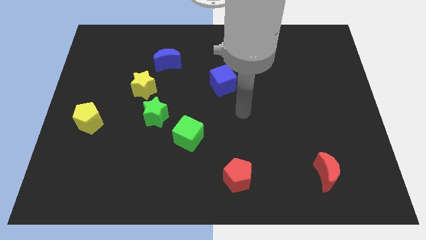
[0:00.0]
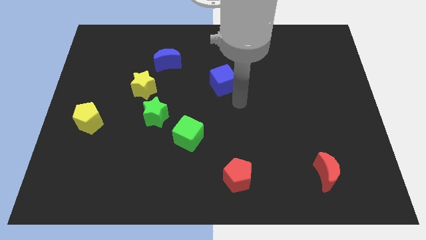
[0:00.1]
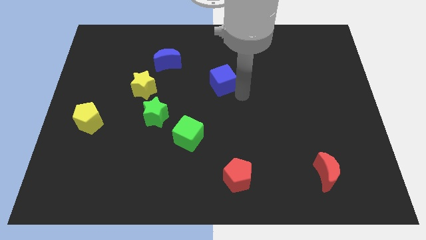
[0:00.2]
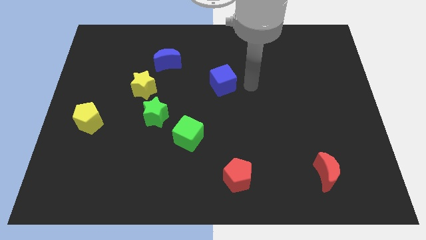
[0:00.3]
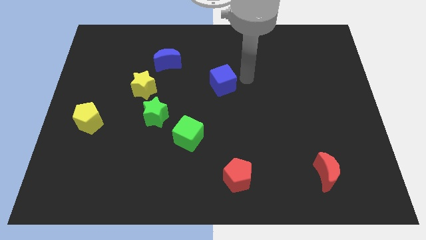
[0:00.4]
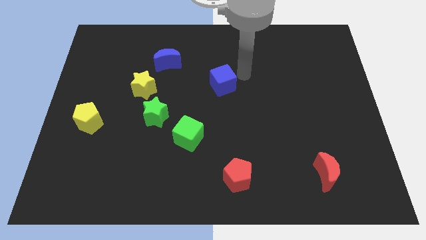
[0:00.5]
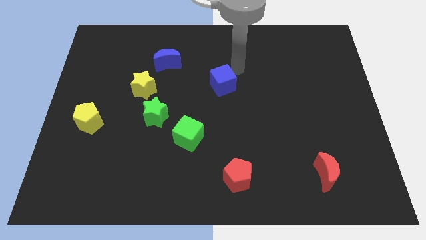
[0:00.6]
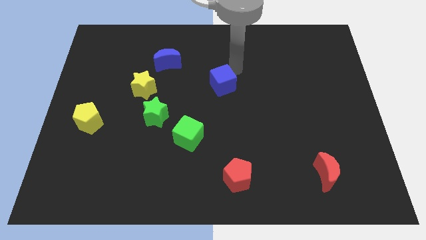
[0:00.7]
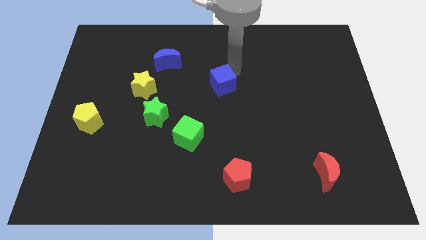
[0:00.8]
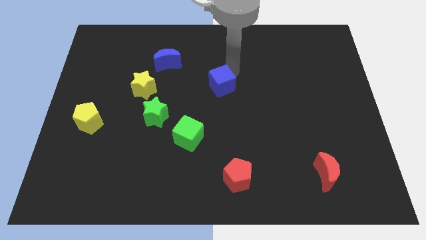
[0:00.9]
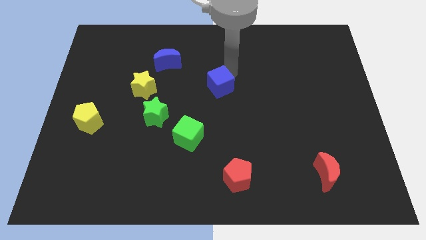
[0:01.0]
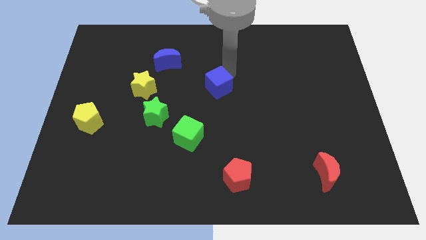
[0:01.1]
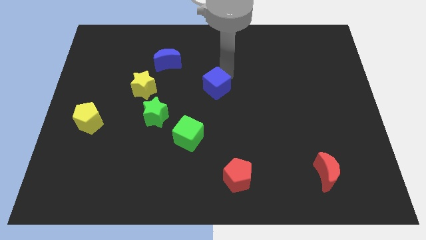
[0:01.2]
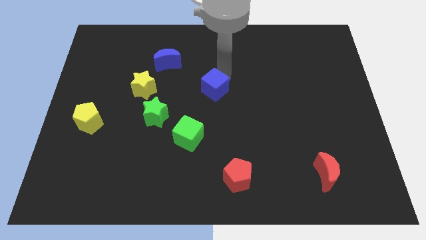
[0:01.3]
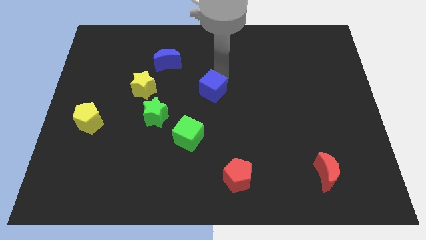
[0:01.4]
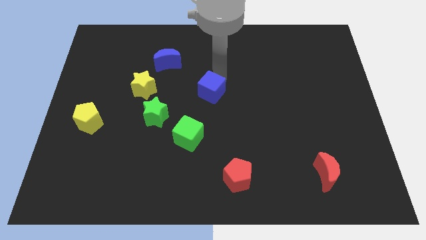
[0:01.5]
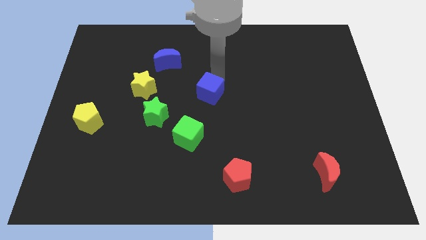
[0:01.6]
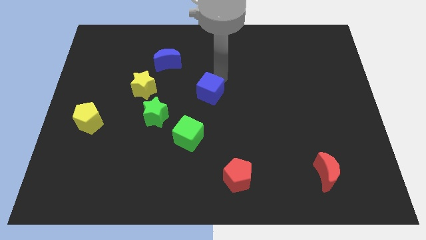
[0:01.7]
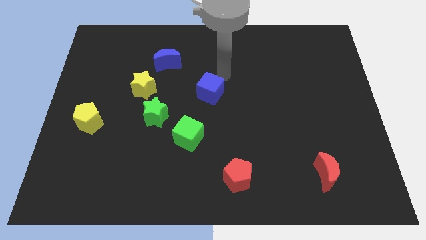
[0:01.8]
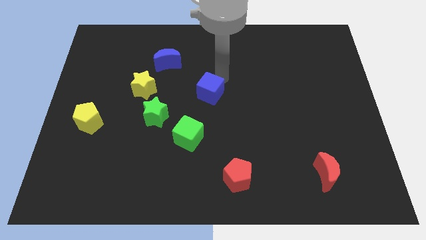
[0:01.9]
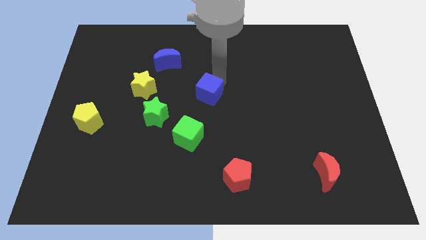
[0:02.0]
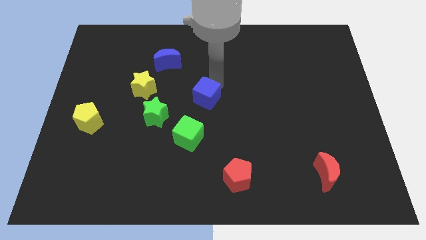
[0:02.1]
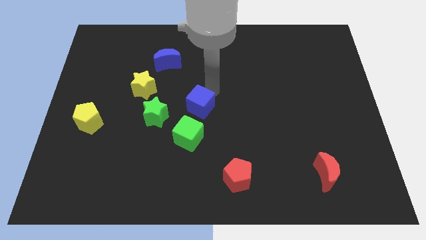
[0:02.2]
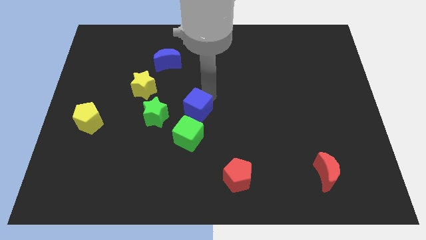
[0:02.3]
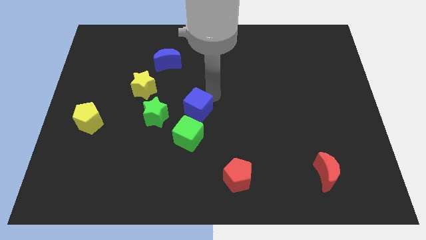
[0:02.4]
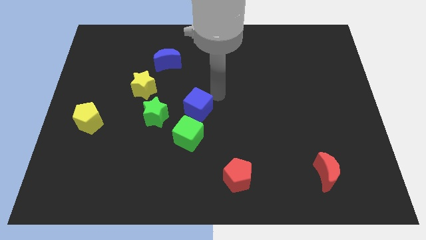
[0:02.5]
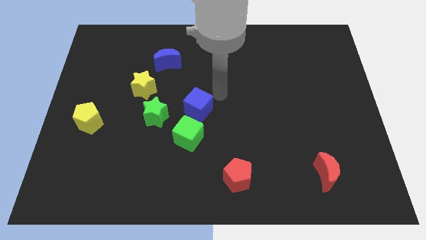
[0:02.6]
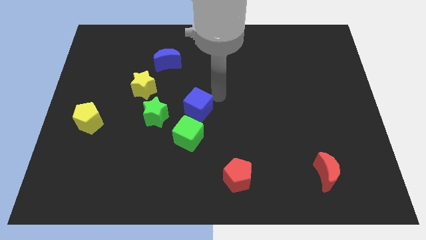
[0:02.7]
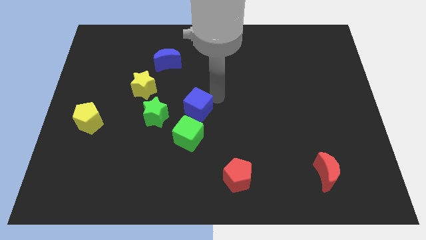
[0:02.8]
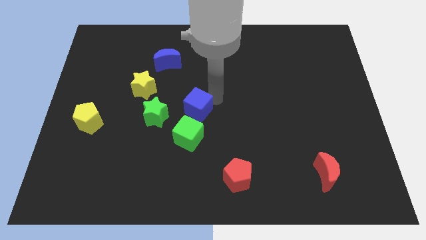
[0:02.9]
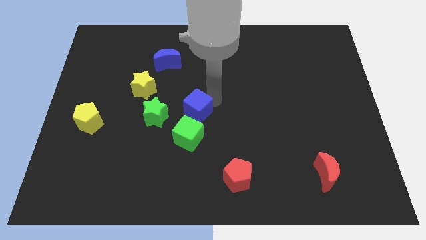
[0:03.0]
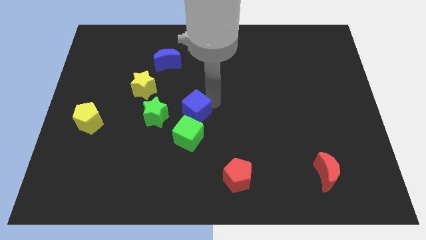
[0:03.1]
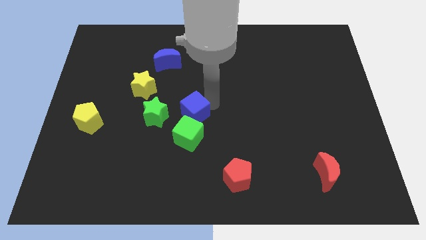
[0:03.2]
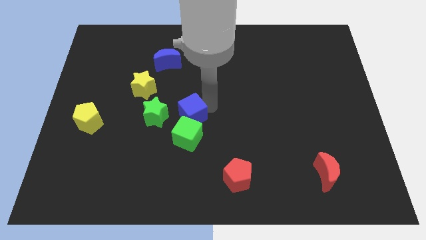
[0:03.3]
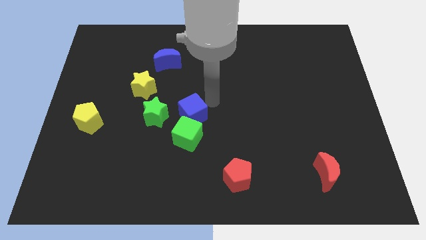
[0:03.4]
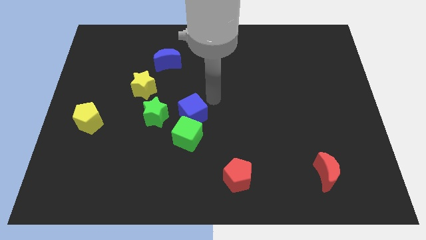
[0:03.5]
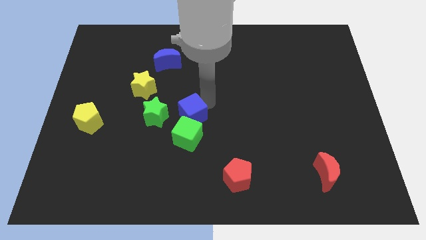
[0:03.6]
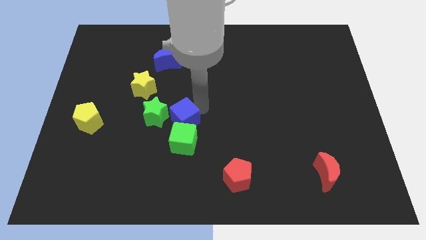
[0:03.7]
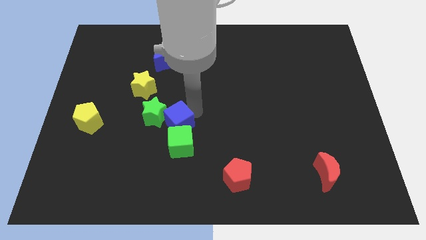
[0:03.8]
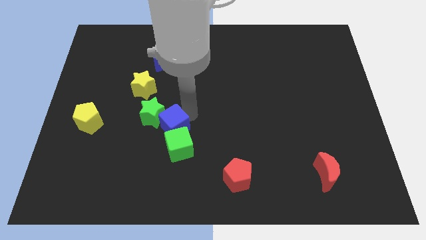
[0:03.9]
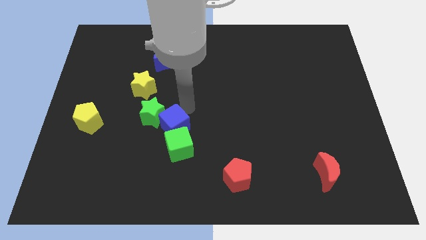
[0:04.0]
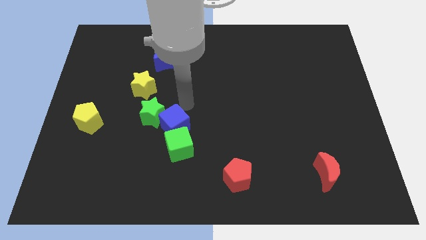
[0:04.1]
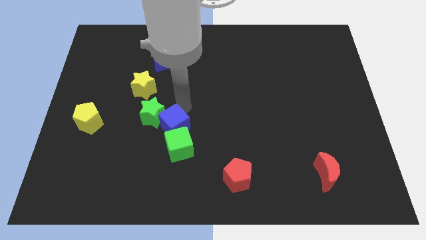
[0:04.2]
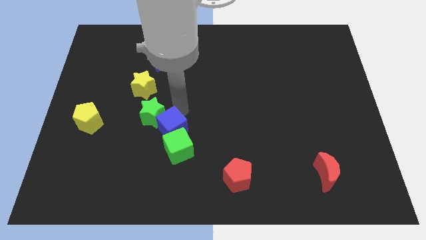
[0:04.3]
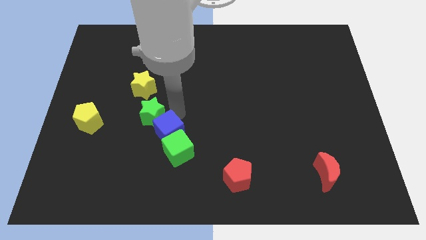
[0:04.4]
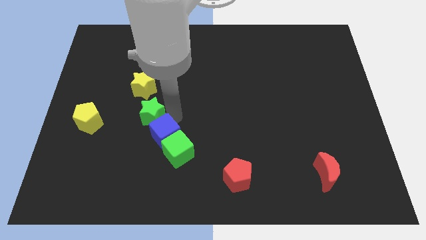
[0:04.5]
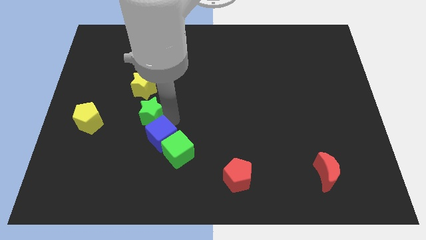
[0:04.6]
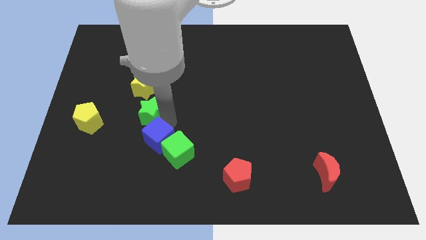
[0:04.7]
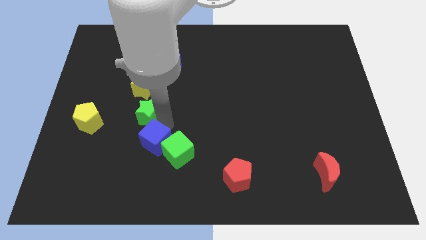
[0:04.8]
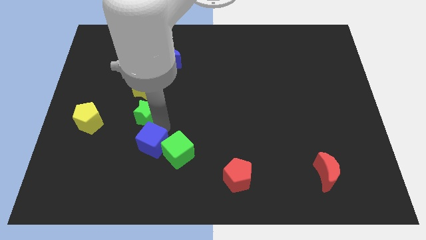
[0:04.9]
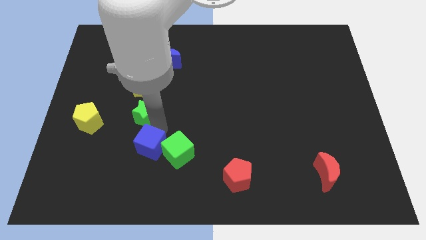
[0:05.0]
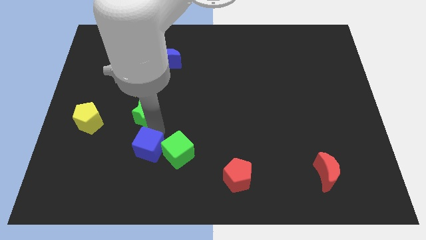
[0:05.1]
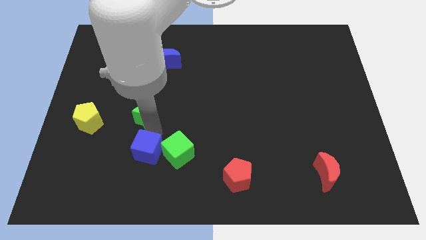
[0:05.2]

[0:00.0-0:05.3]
push the blue cube diagonally down and to the left of the green cube

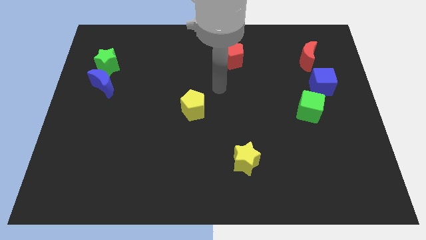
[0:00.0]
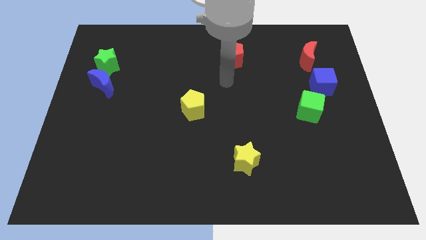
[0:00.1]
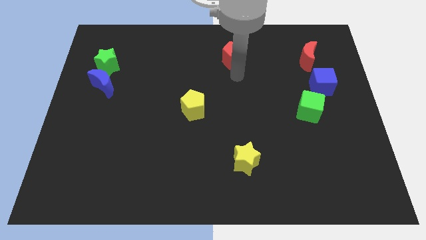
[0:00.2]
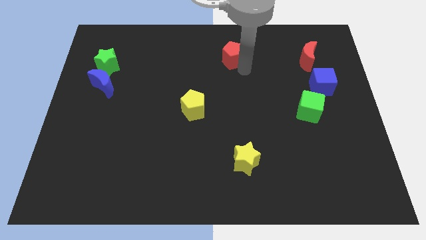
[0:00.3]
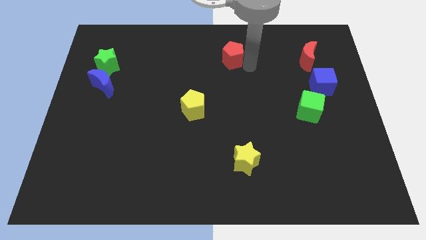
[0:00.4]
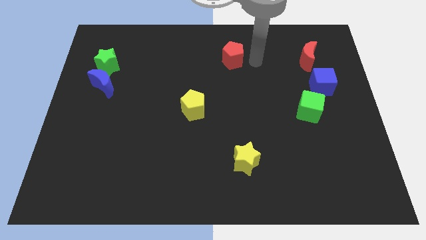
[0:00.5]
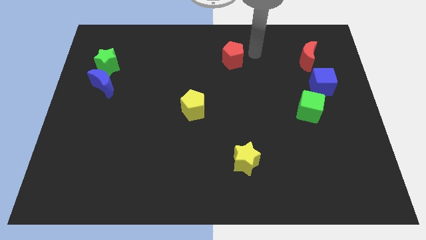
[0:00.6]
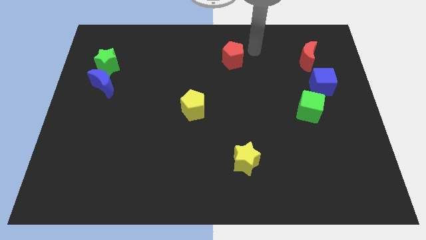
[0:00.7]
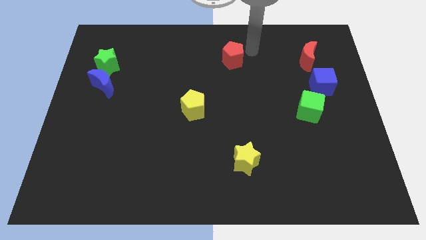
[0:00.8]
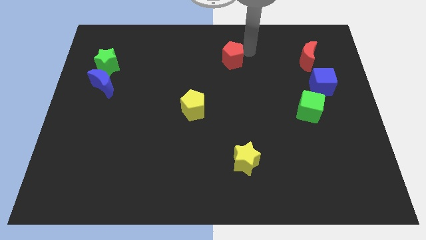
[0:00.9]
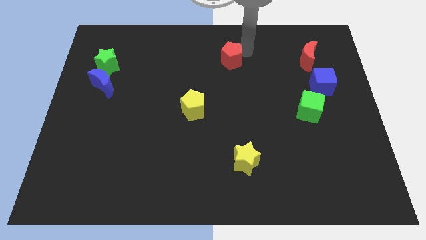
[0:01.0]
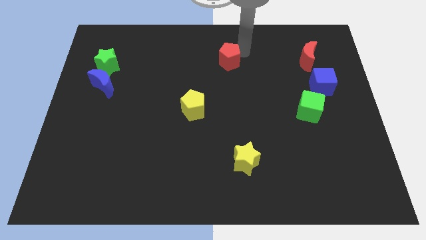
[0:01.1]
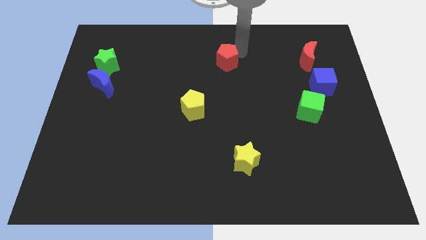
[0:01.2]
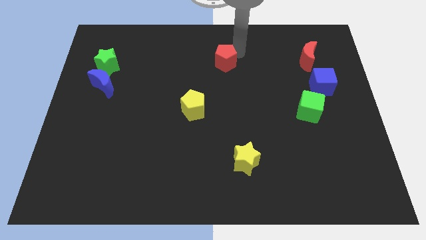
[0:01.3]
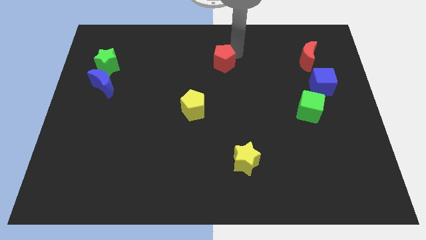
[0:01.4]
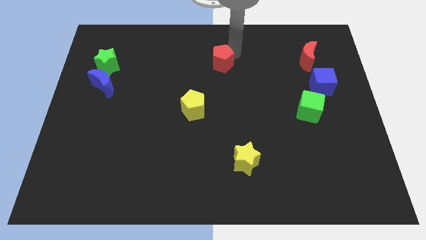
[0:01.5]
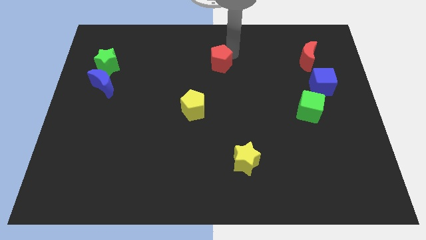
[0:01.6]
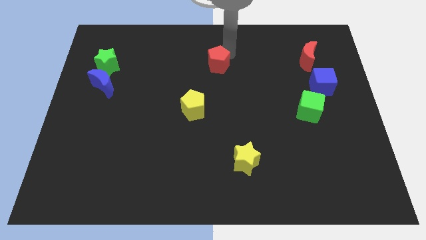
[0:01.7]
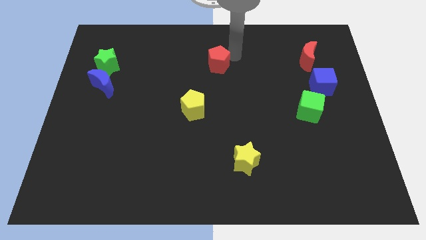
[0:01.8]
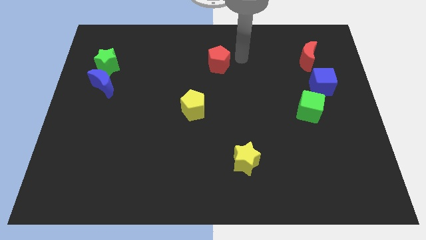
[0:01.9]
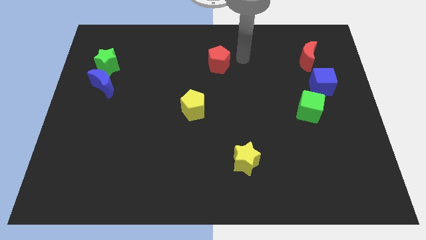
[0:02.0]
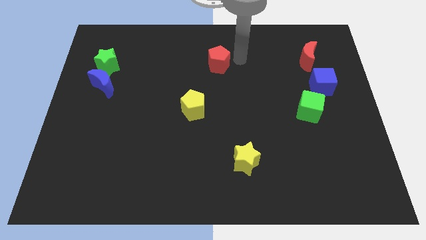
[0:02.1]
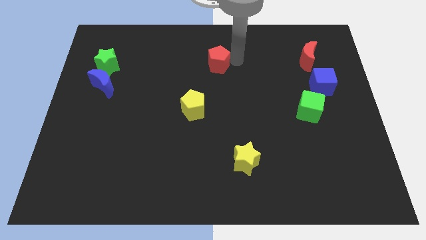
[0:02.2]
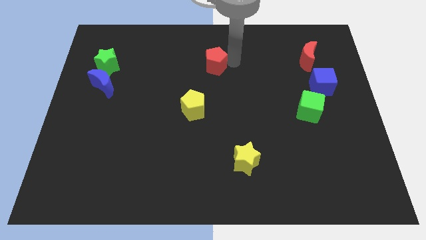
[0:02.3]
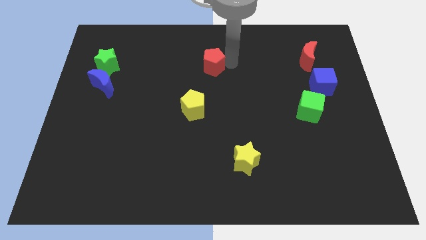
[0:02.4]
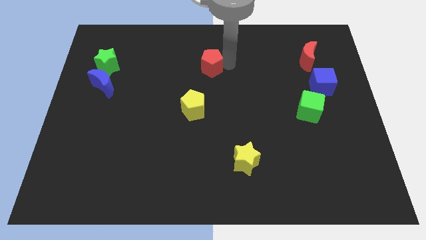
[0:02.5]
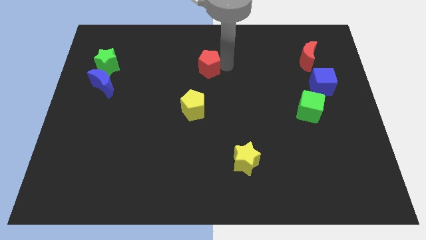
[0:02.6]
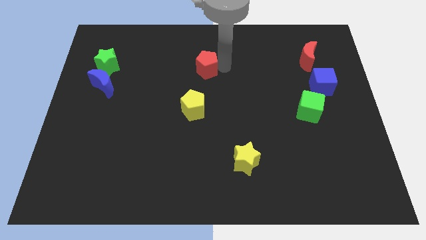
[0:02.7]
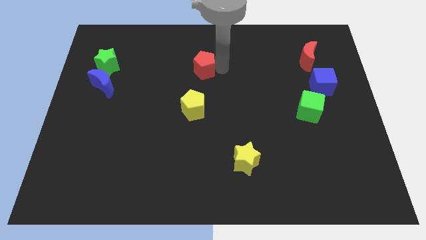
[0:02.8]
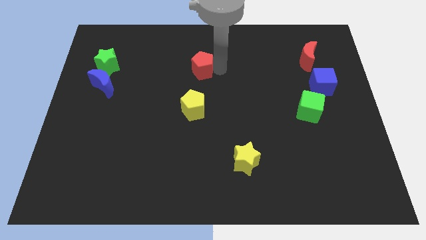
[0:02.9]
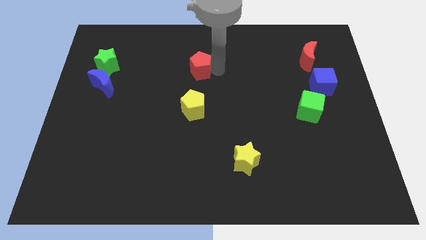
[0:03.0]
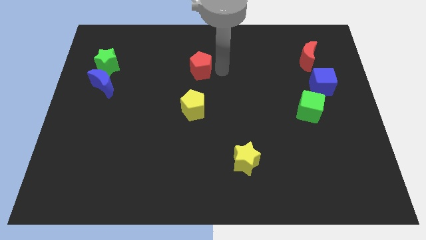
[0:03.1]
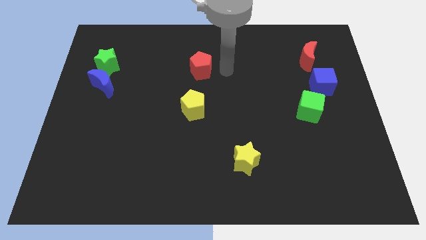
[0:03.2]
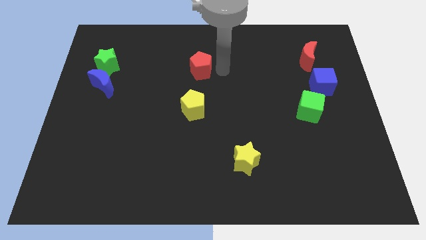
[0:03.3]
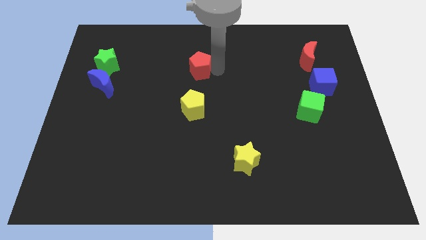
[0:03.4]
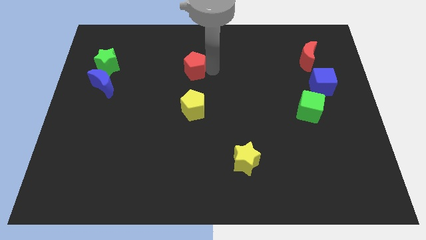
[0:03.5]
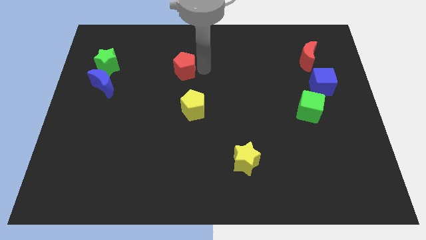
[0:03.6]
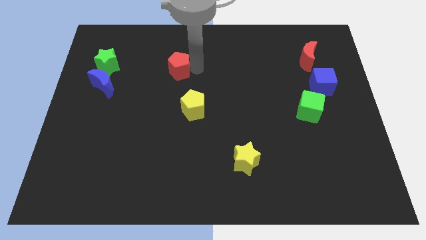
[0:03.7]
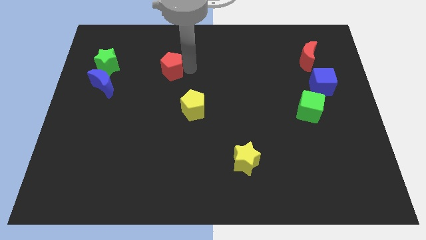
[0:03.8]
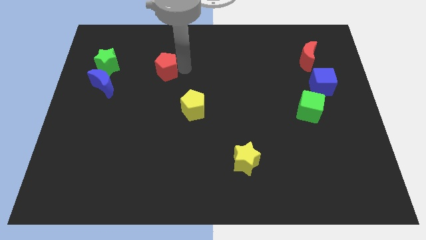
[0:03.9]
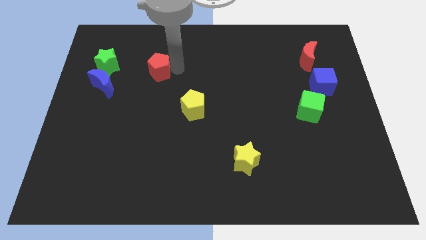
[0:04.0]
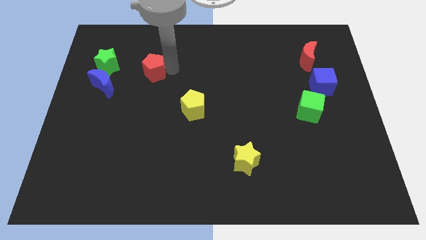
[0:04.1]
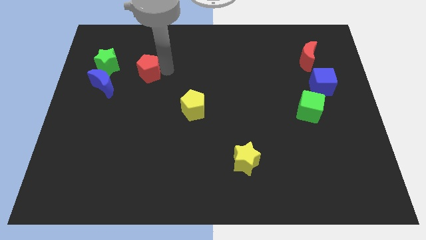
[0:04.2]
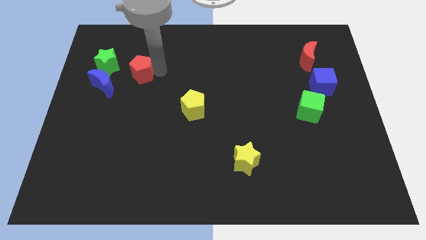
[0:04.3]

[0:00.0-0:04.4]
put the red pentagon to the top right of the blue moon
